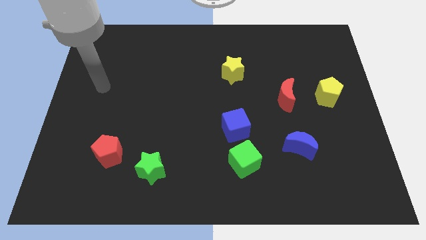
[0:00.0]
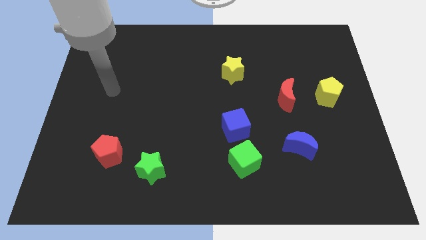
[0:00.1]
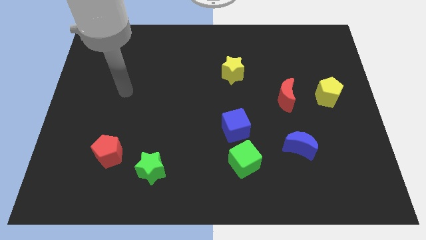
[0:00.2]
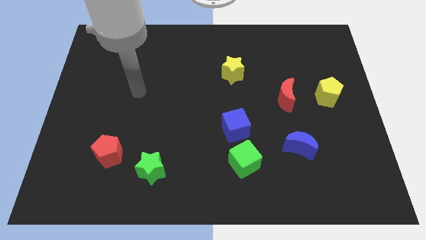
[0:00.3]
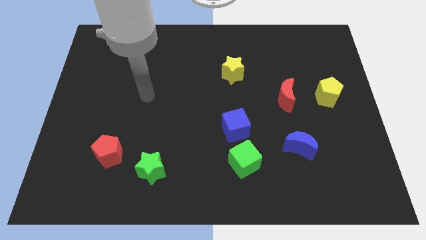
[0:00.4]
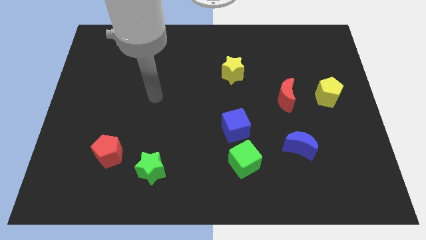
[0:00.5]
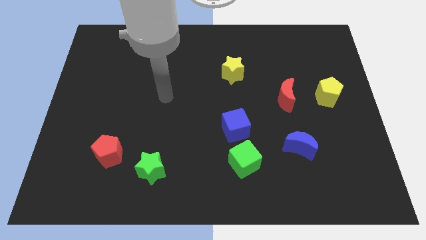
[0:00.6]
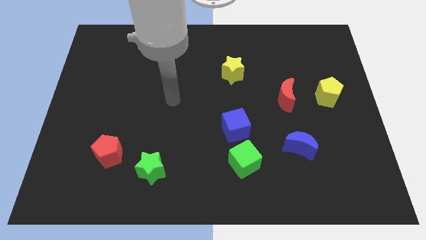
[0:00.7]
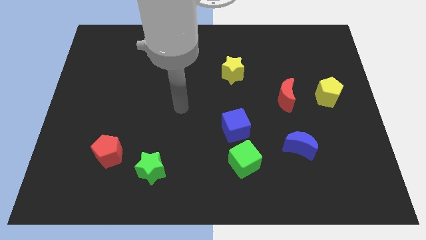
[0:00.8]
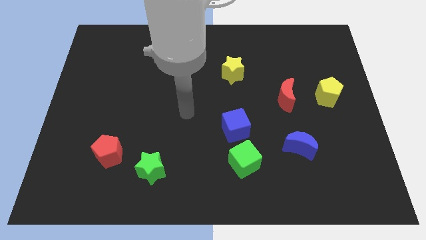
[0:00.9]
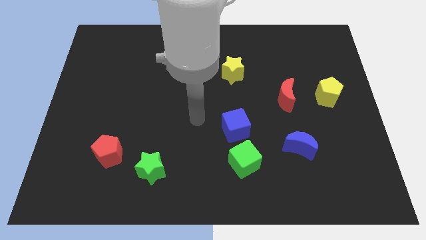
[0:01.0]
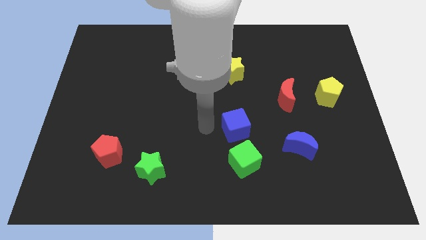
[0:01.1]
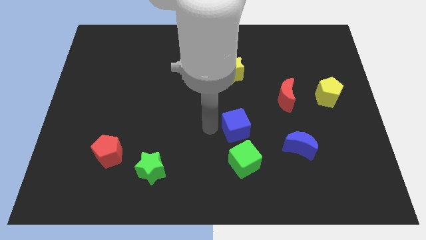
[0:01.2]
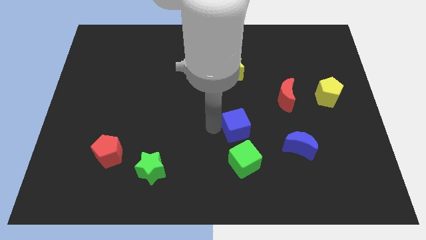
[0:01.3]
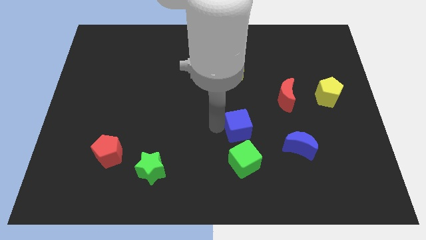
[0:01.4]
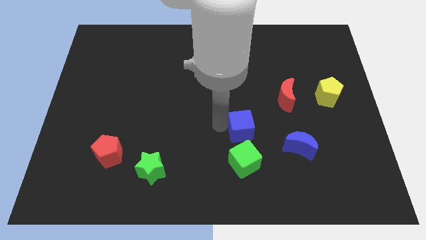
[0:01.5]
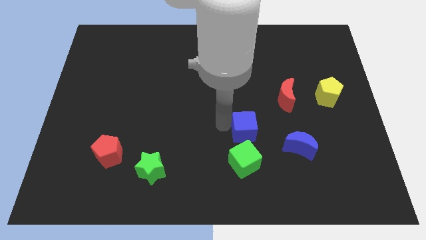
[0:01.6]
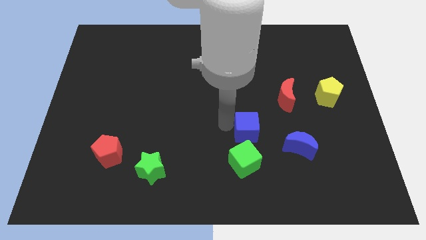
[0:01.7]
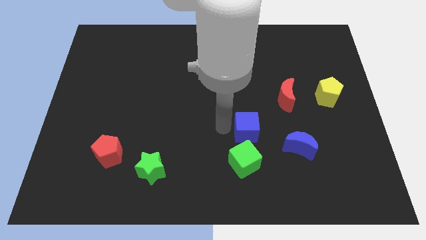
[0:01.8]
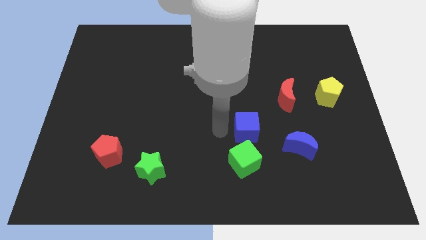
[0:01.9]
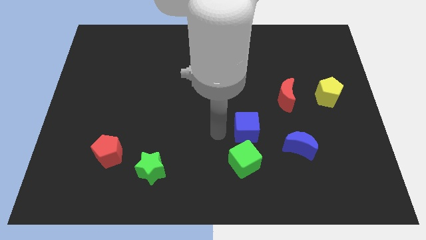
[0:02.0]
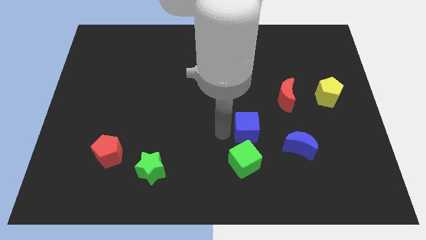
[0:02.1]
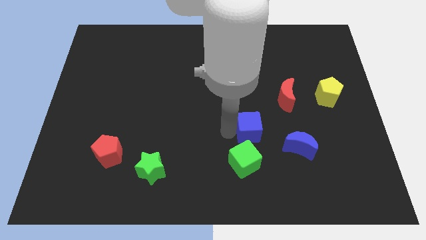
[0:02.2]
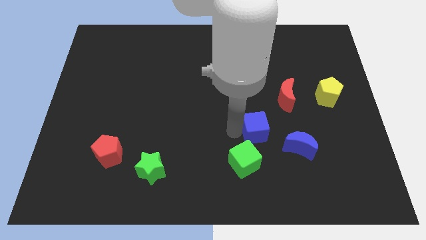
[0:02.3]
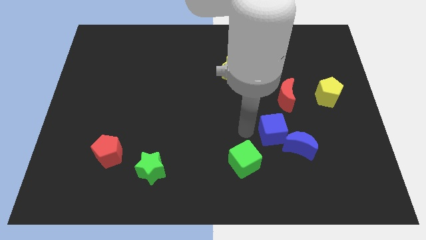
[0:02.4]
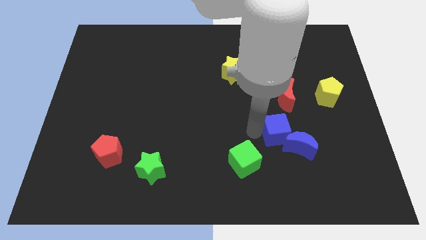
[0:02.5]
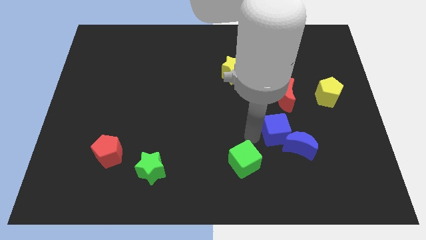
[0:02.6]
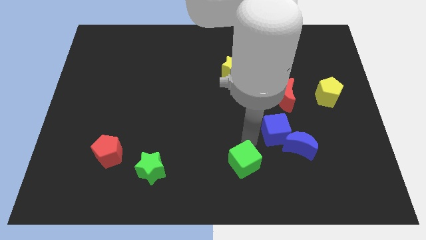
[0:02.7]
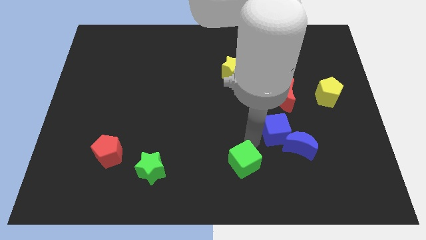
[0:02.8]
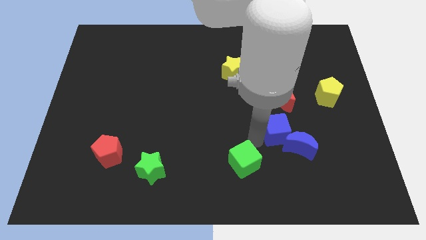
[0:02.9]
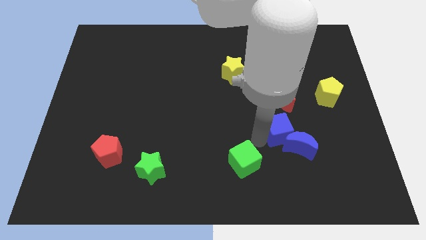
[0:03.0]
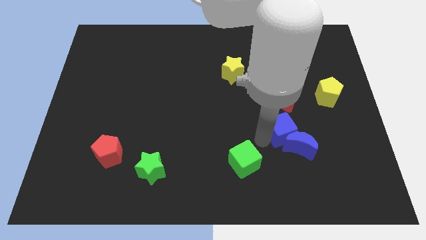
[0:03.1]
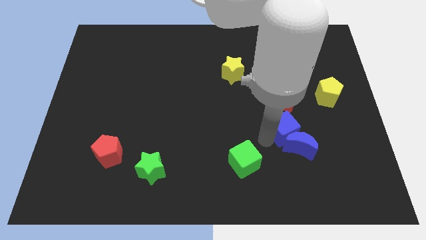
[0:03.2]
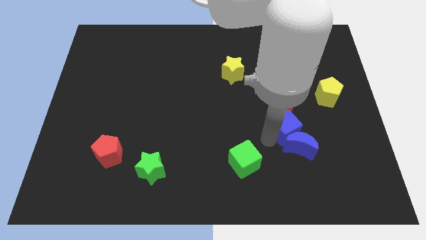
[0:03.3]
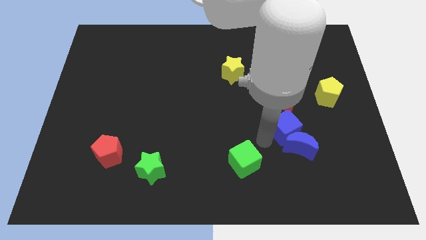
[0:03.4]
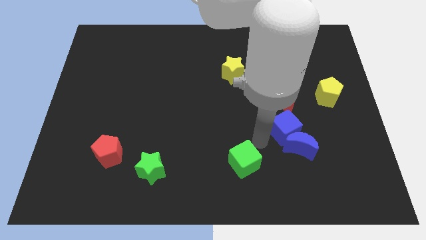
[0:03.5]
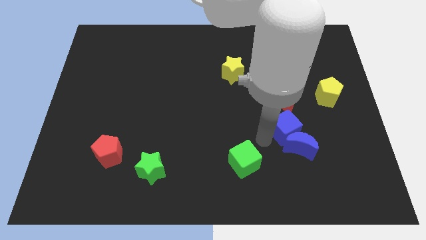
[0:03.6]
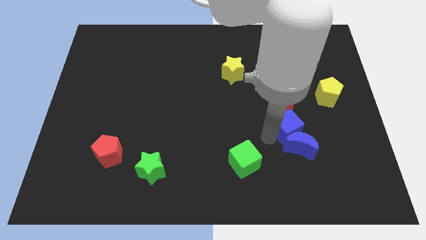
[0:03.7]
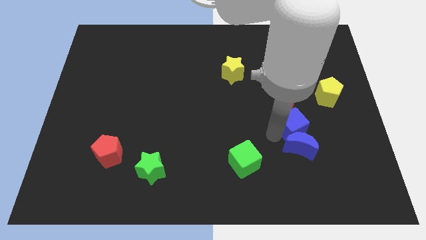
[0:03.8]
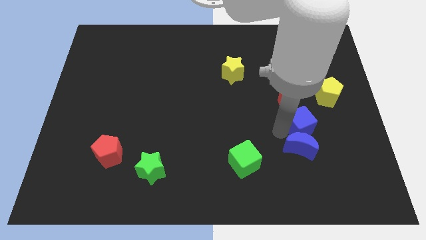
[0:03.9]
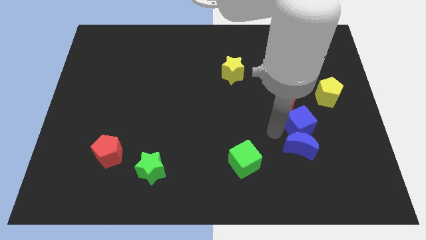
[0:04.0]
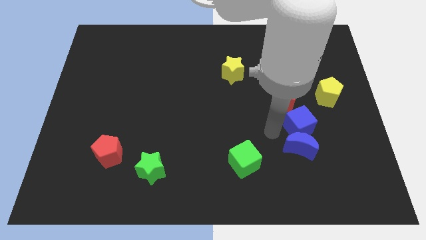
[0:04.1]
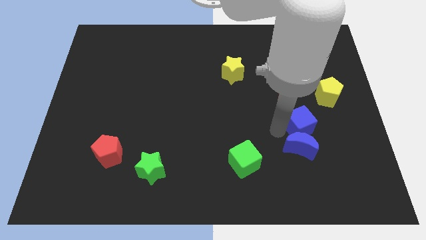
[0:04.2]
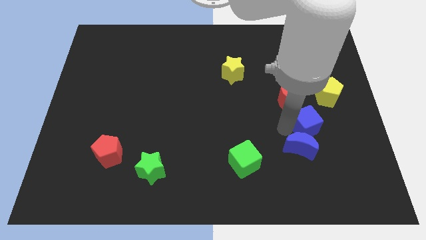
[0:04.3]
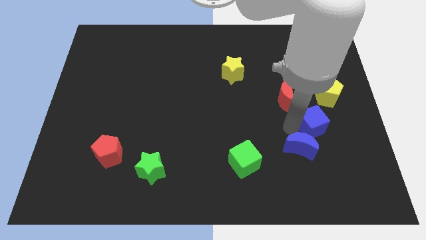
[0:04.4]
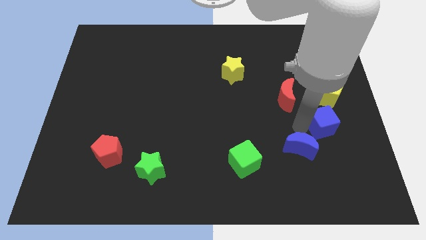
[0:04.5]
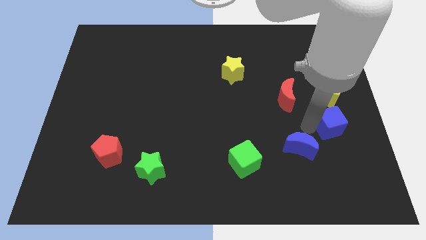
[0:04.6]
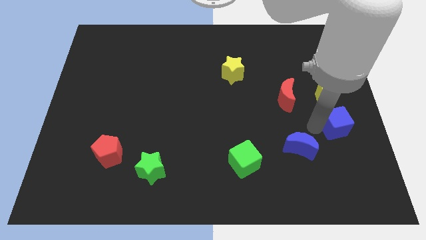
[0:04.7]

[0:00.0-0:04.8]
put the blue cube to the right side

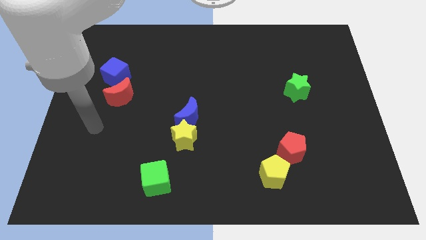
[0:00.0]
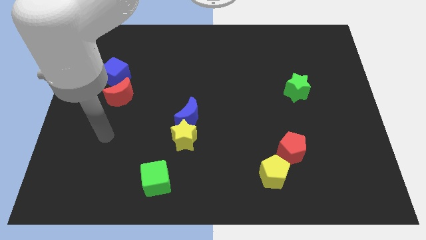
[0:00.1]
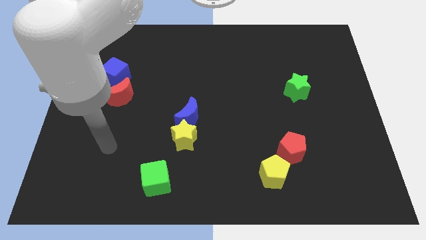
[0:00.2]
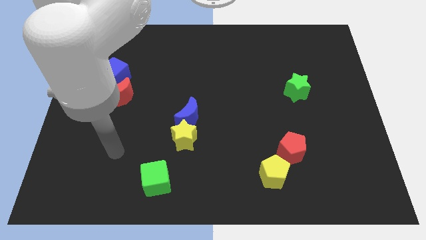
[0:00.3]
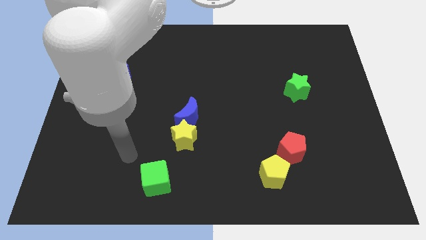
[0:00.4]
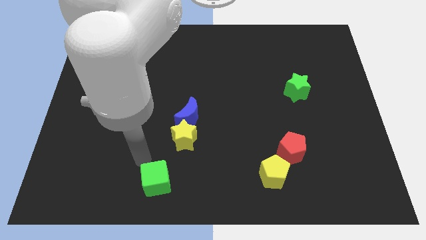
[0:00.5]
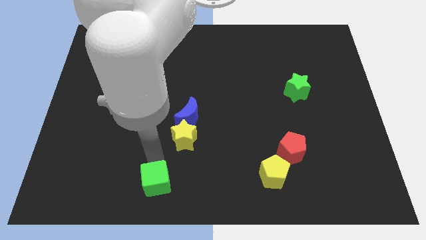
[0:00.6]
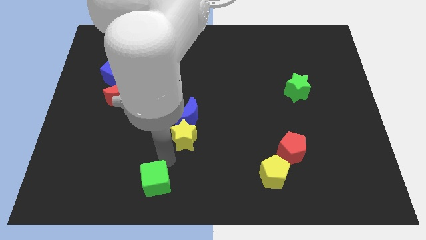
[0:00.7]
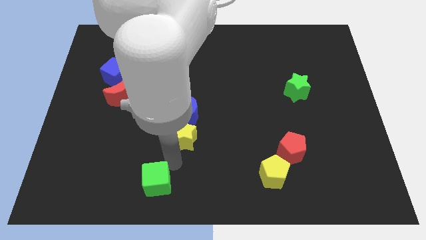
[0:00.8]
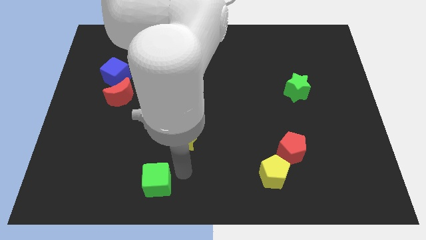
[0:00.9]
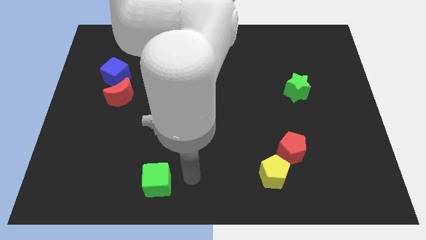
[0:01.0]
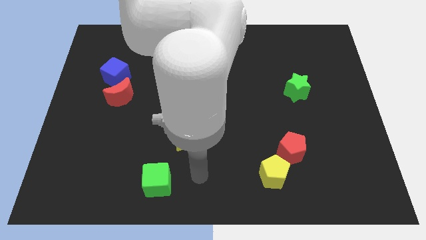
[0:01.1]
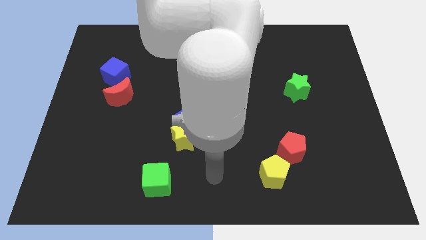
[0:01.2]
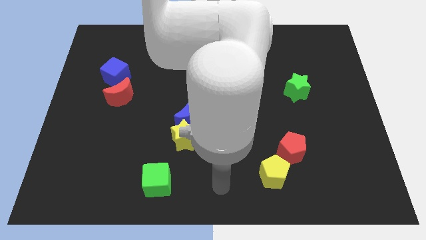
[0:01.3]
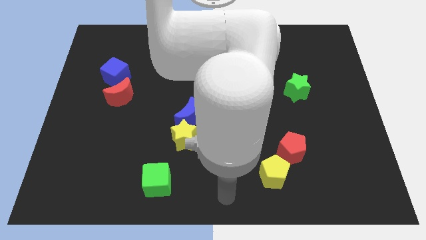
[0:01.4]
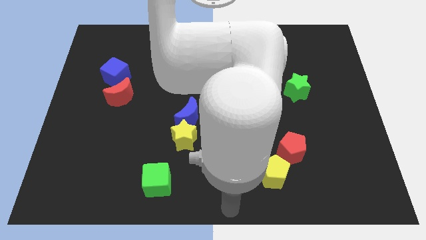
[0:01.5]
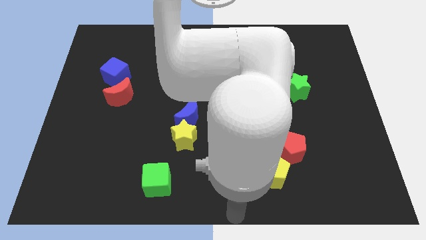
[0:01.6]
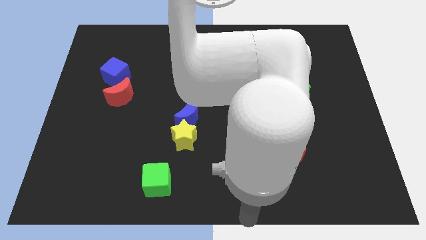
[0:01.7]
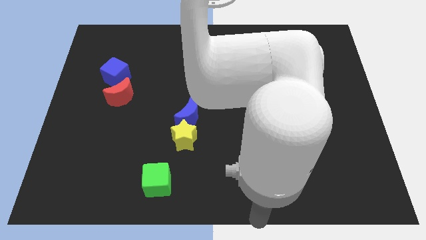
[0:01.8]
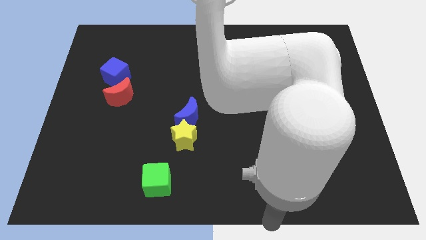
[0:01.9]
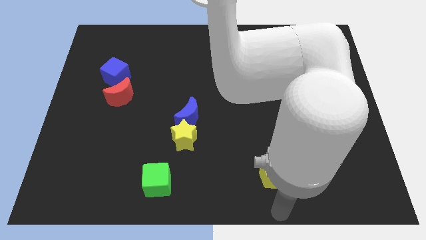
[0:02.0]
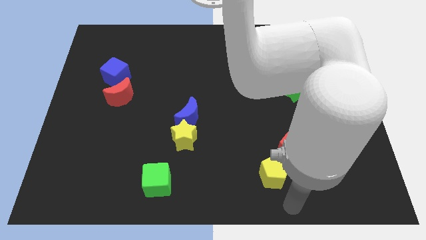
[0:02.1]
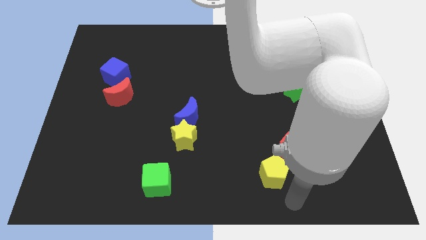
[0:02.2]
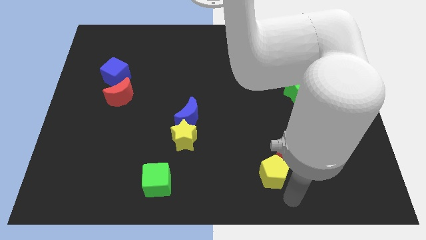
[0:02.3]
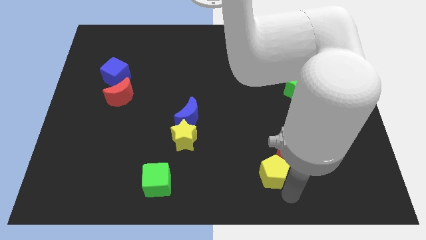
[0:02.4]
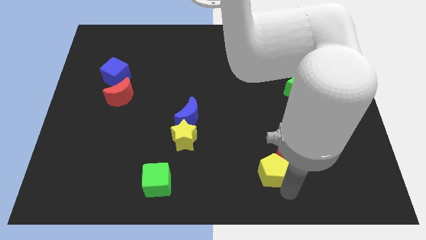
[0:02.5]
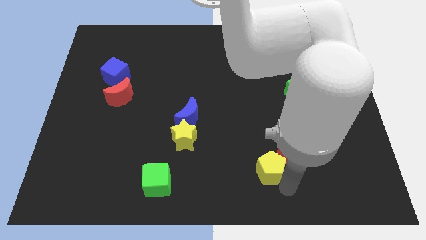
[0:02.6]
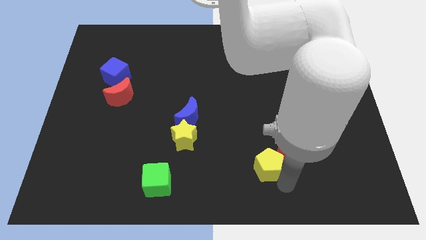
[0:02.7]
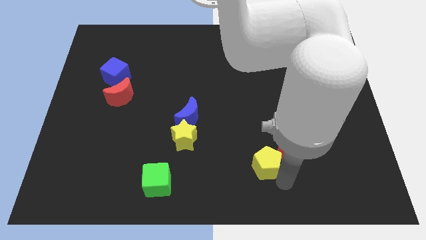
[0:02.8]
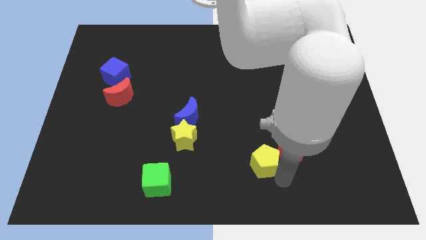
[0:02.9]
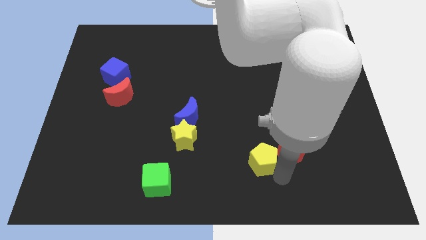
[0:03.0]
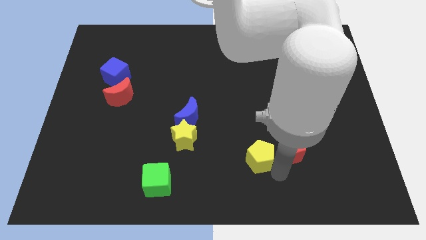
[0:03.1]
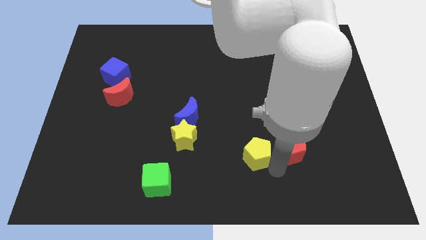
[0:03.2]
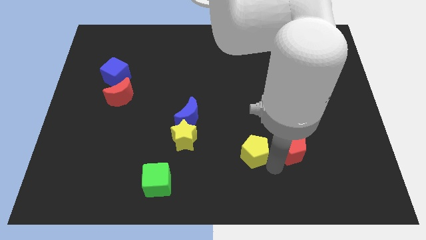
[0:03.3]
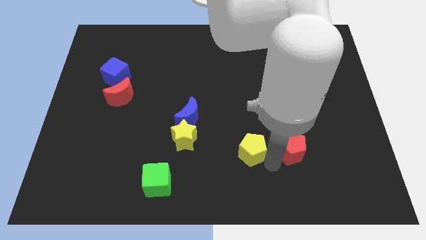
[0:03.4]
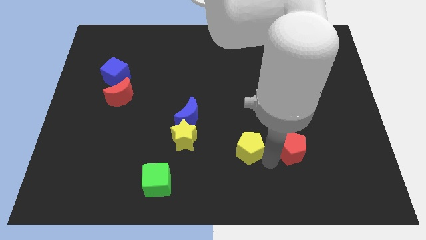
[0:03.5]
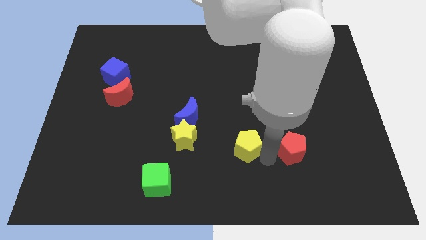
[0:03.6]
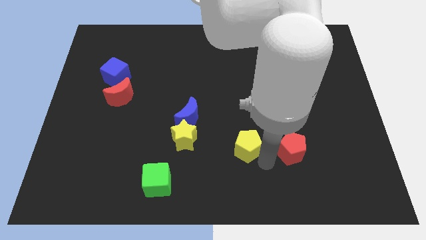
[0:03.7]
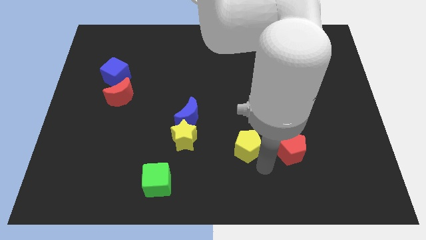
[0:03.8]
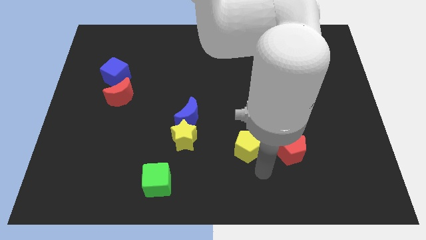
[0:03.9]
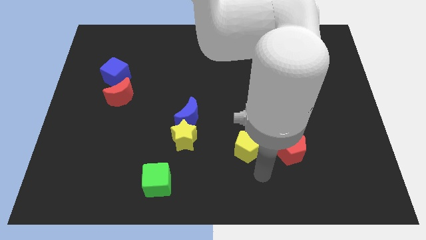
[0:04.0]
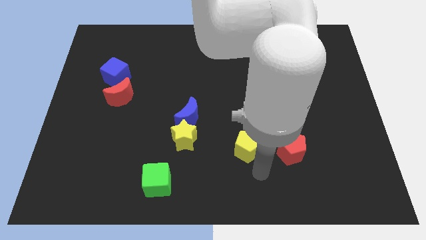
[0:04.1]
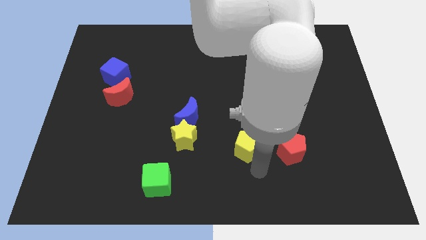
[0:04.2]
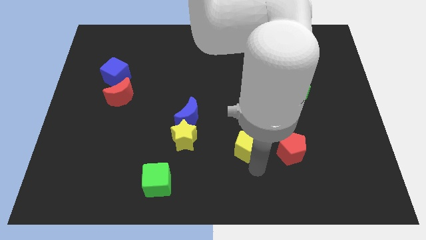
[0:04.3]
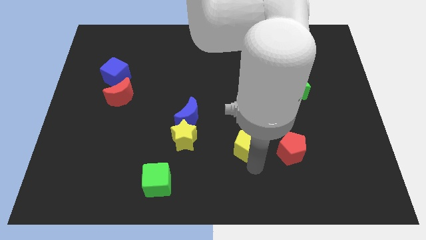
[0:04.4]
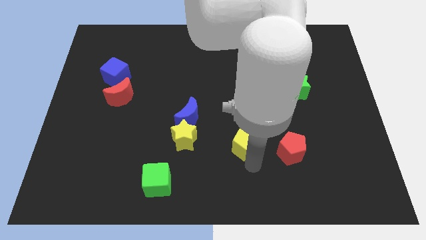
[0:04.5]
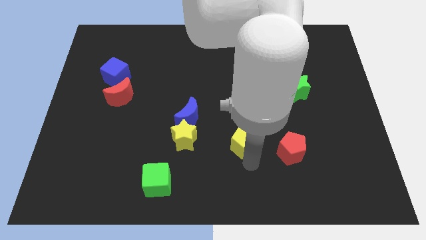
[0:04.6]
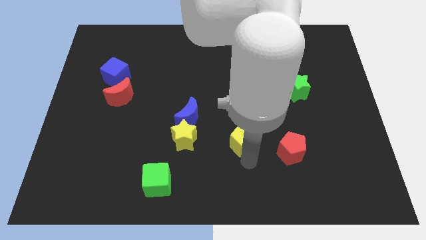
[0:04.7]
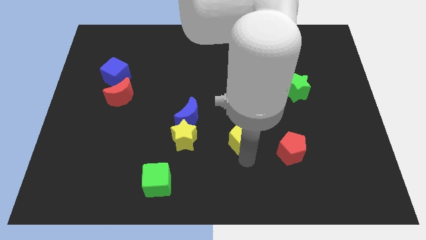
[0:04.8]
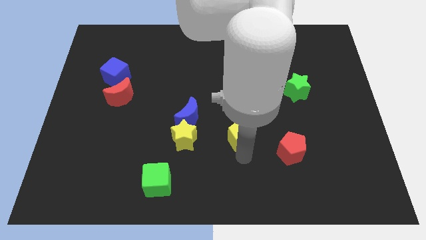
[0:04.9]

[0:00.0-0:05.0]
push the yellow pentagon to the middle
